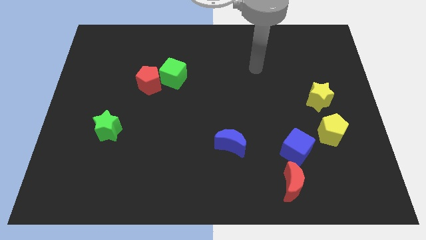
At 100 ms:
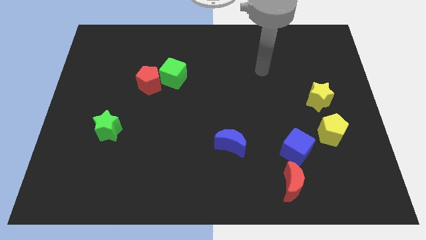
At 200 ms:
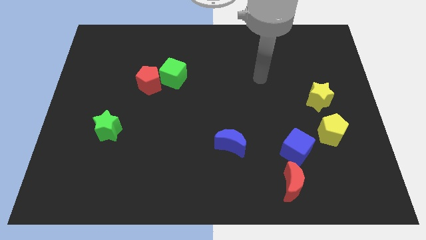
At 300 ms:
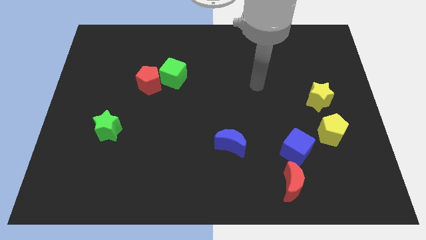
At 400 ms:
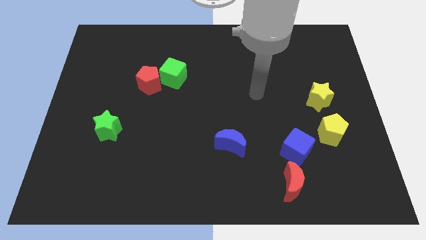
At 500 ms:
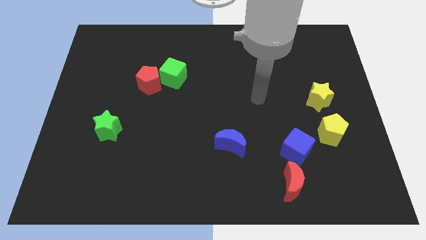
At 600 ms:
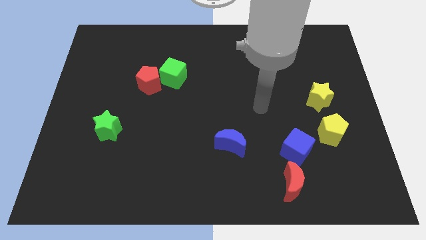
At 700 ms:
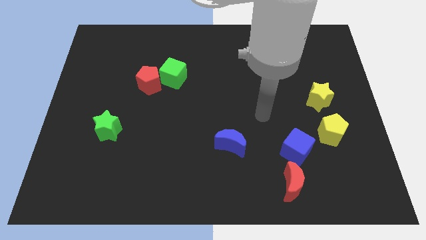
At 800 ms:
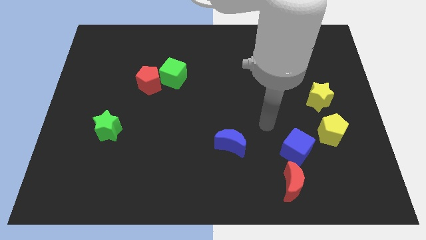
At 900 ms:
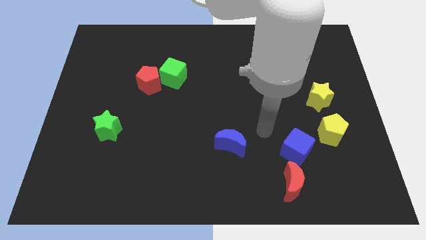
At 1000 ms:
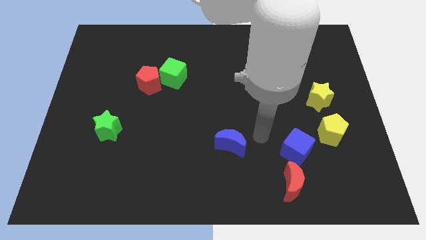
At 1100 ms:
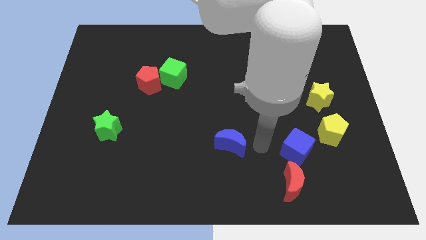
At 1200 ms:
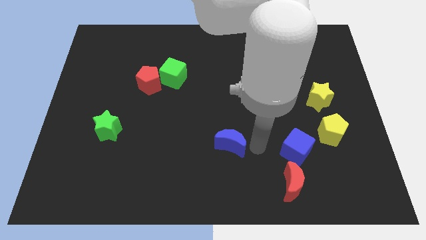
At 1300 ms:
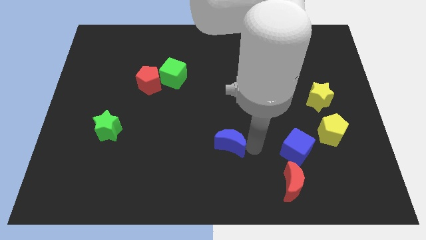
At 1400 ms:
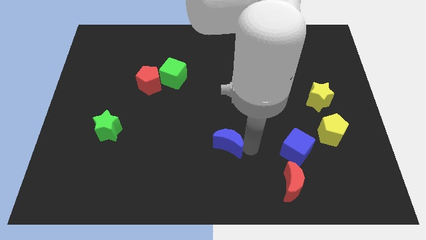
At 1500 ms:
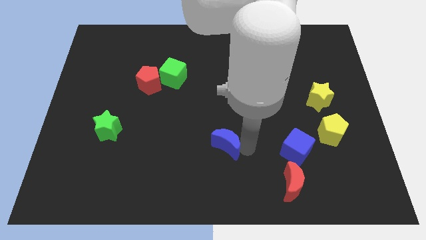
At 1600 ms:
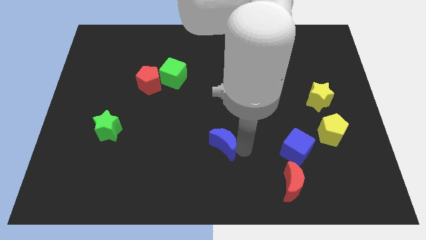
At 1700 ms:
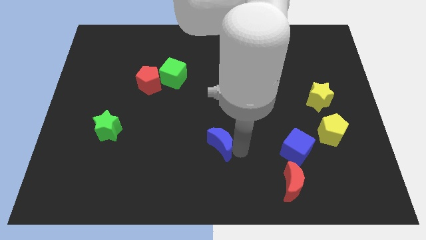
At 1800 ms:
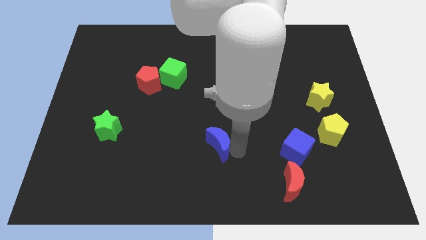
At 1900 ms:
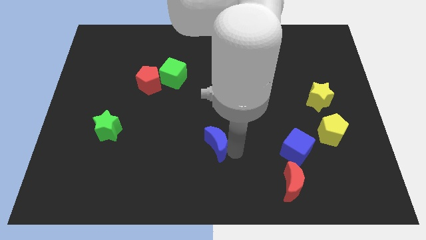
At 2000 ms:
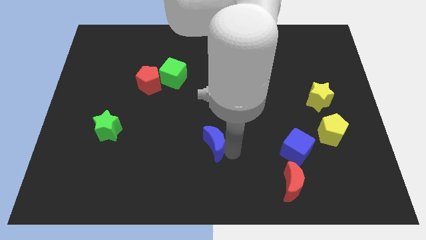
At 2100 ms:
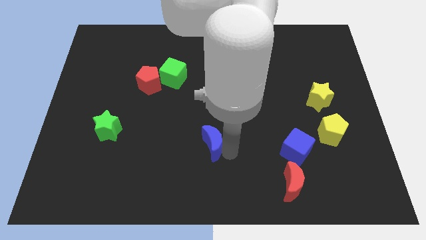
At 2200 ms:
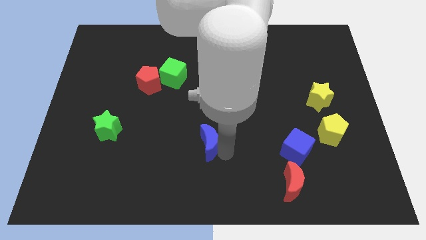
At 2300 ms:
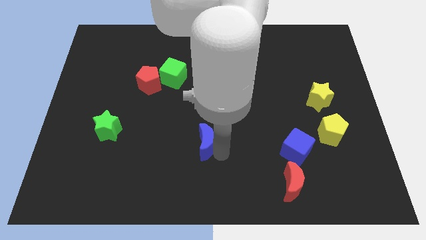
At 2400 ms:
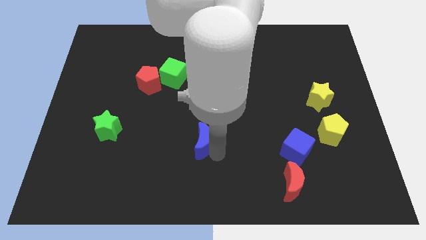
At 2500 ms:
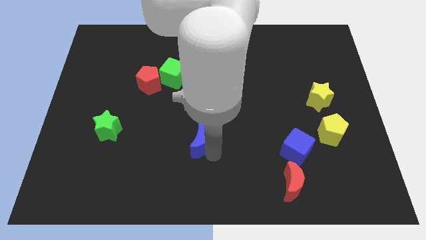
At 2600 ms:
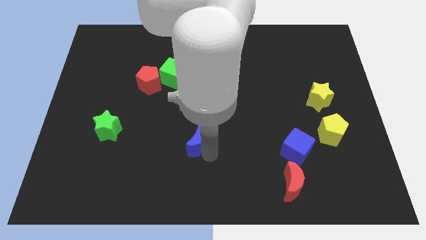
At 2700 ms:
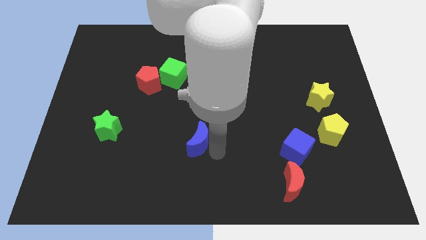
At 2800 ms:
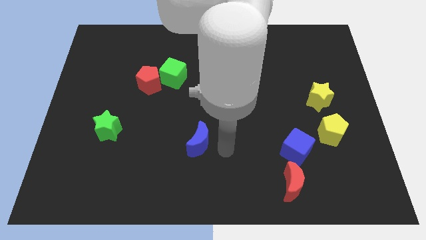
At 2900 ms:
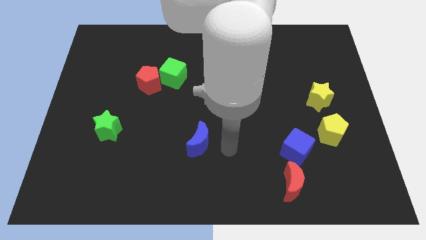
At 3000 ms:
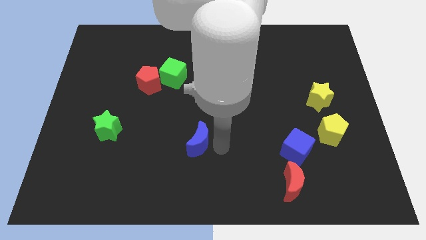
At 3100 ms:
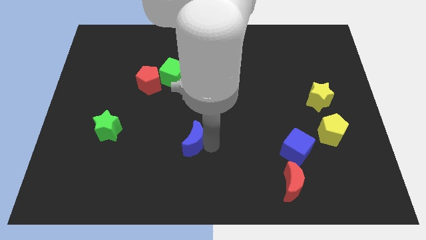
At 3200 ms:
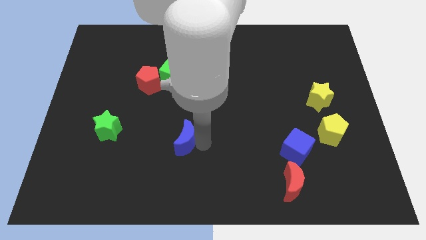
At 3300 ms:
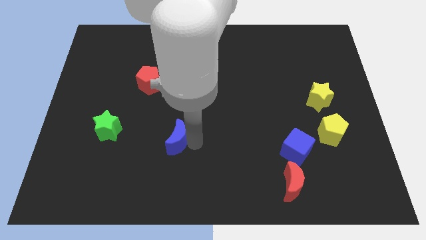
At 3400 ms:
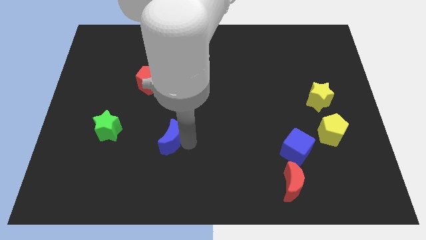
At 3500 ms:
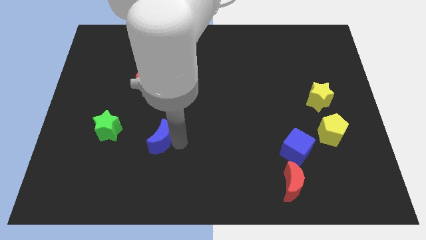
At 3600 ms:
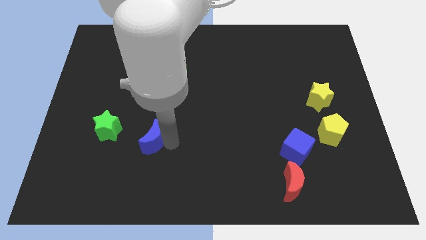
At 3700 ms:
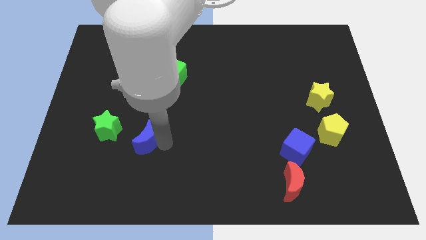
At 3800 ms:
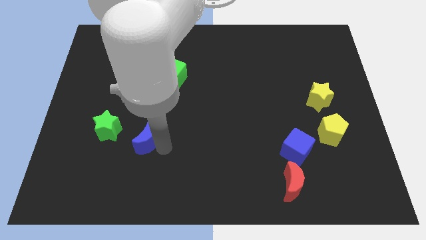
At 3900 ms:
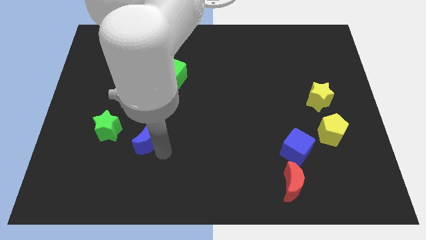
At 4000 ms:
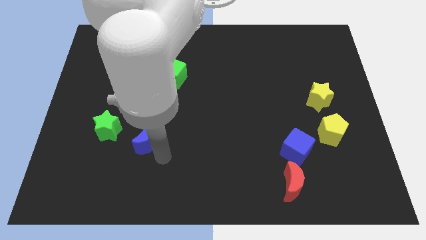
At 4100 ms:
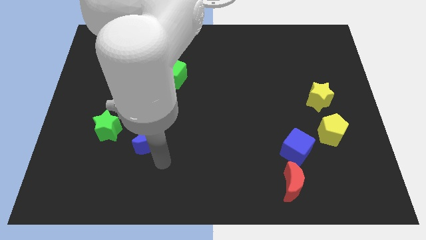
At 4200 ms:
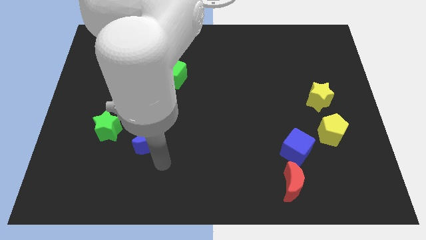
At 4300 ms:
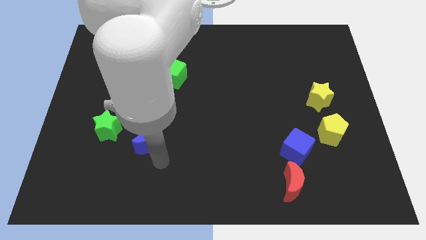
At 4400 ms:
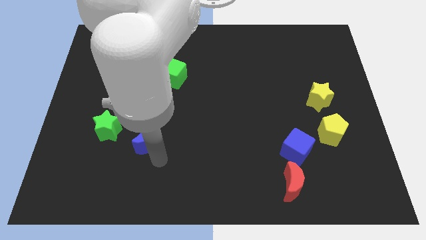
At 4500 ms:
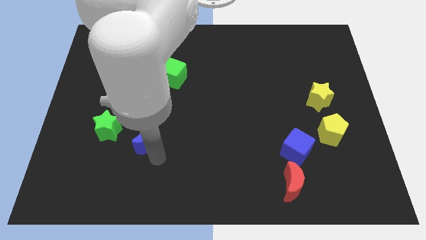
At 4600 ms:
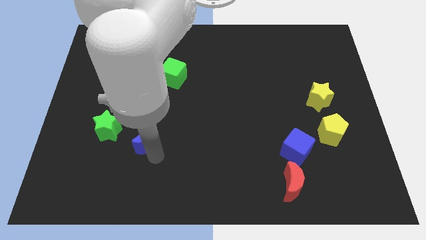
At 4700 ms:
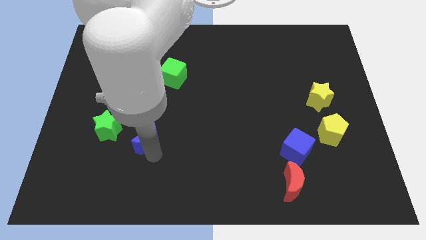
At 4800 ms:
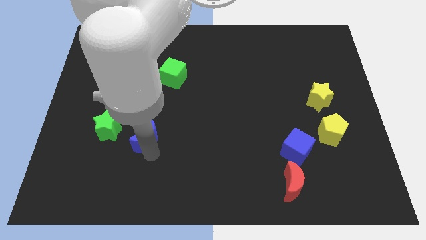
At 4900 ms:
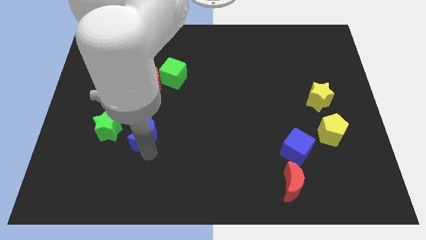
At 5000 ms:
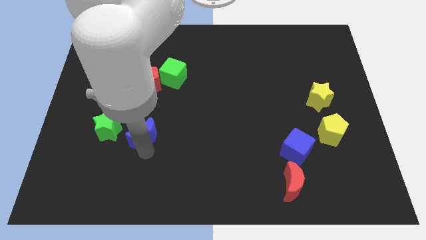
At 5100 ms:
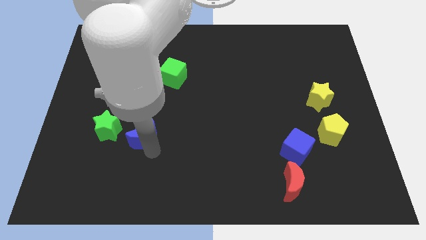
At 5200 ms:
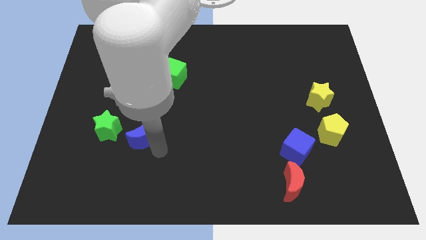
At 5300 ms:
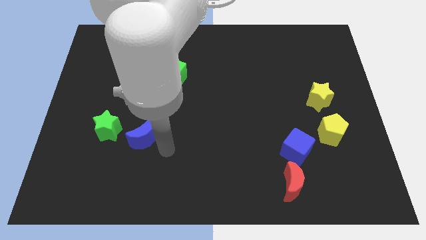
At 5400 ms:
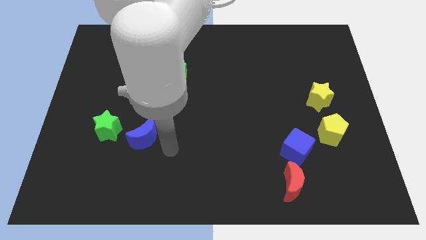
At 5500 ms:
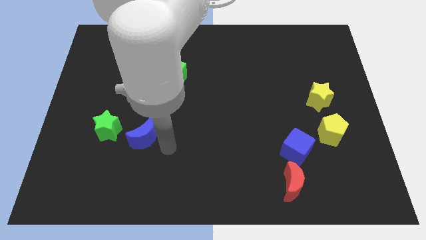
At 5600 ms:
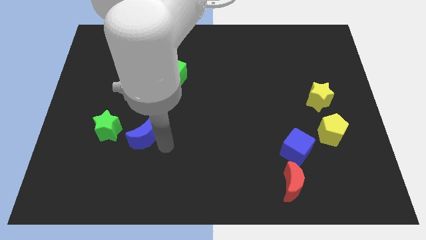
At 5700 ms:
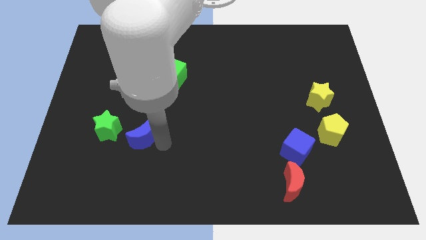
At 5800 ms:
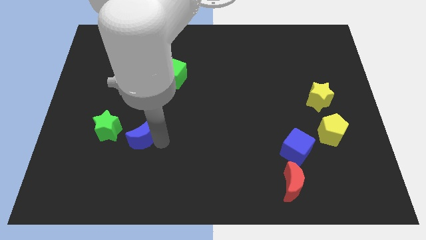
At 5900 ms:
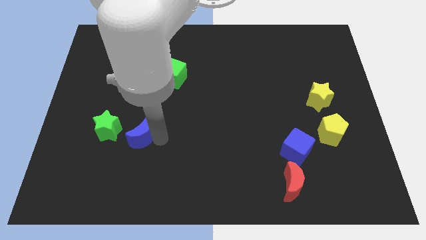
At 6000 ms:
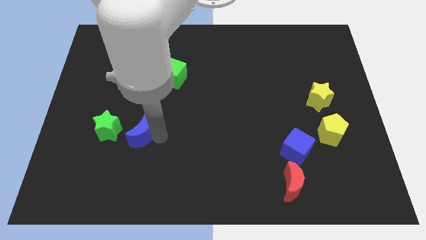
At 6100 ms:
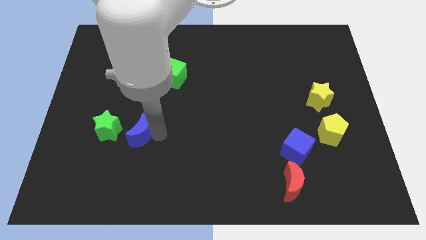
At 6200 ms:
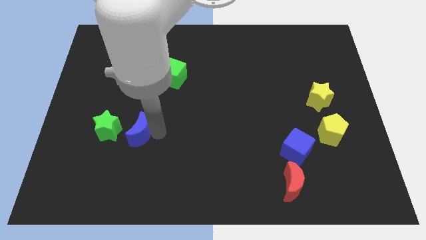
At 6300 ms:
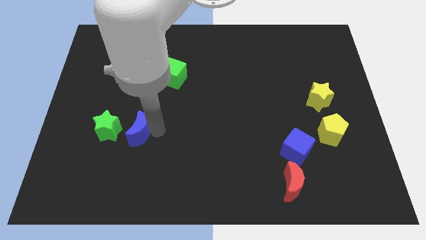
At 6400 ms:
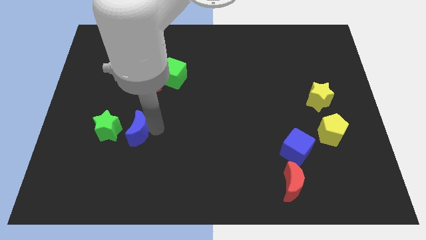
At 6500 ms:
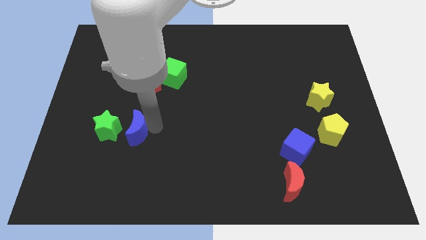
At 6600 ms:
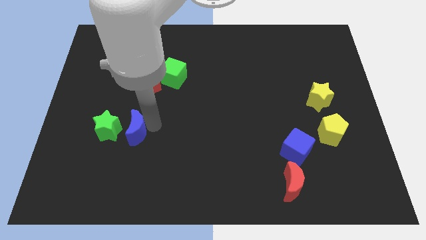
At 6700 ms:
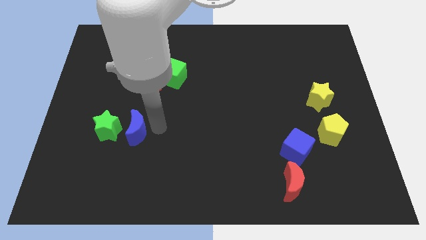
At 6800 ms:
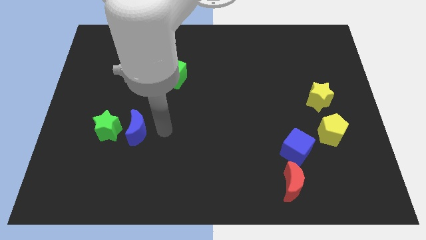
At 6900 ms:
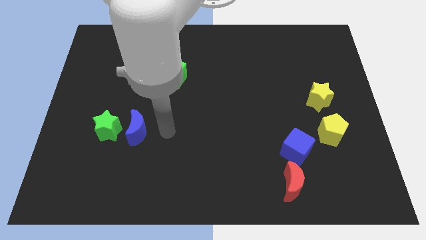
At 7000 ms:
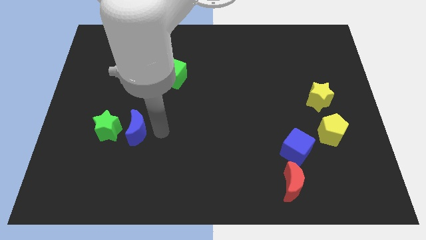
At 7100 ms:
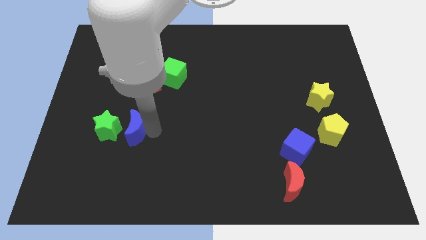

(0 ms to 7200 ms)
slide the blue moon towards the green star
